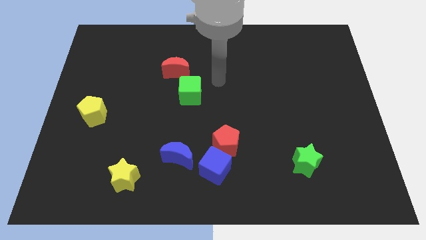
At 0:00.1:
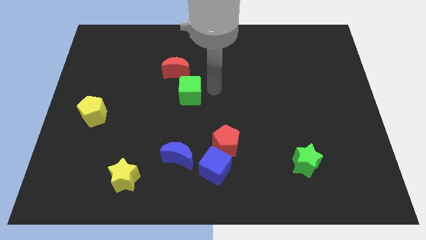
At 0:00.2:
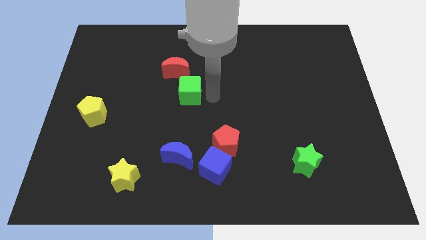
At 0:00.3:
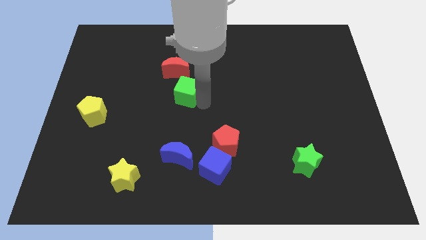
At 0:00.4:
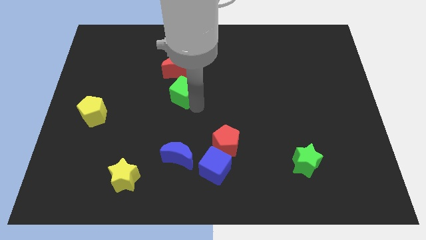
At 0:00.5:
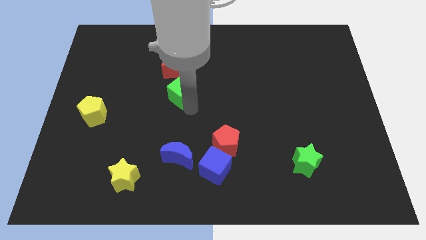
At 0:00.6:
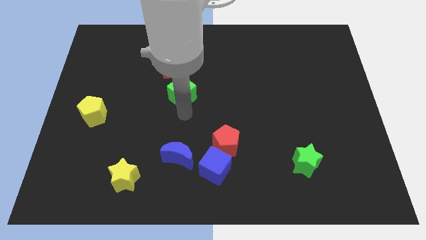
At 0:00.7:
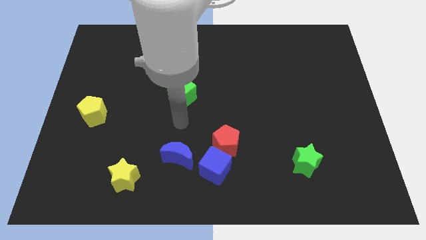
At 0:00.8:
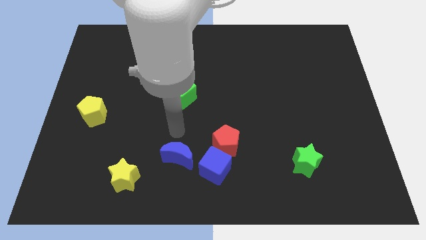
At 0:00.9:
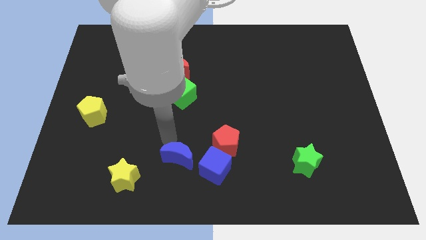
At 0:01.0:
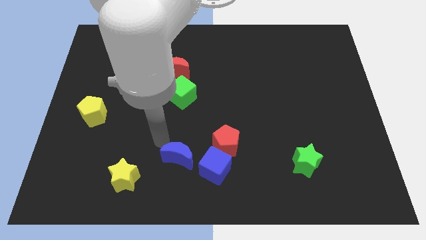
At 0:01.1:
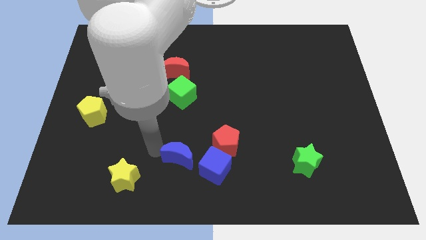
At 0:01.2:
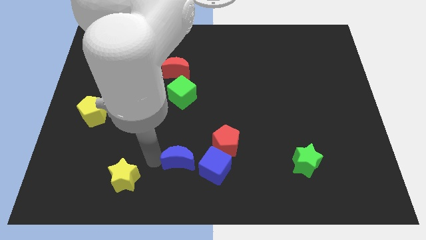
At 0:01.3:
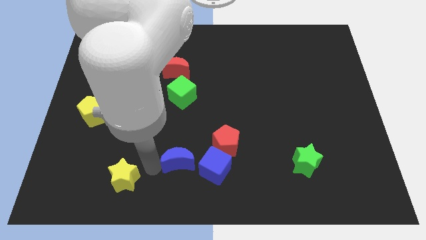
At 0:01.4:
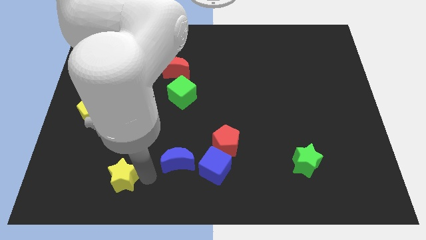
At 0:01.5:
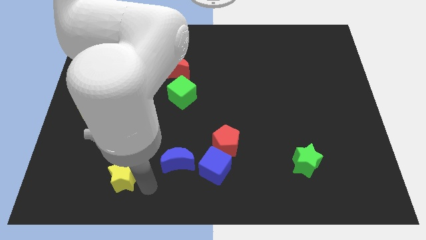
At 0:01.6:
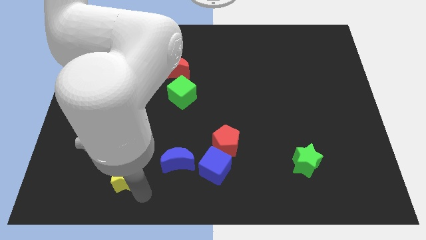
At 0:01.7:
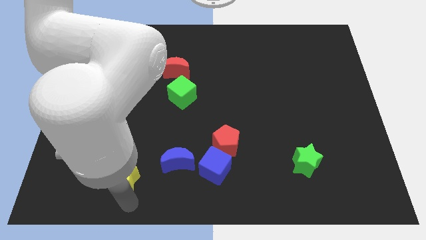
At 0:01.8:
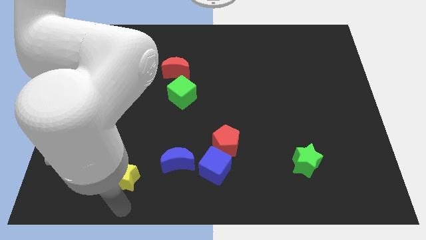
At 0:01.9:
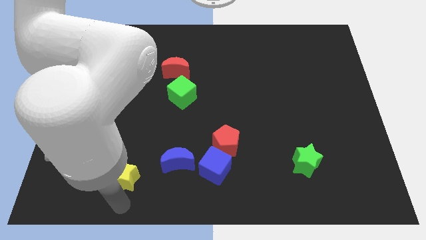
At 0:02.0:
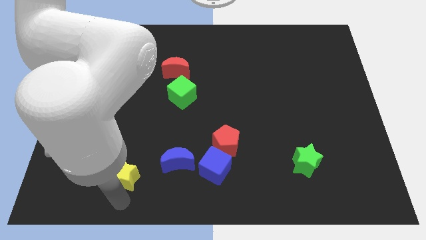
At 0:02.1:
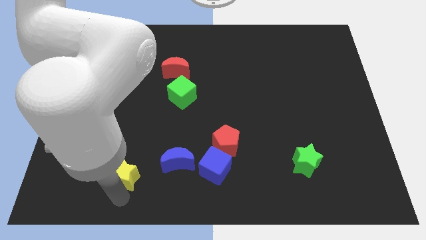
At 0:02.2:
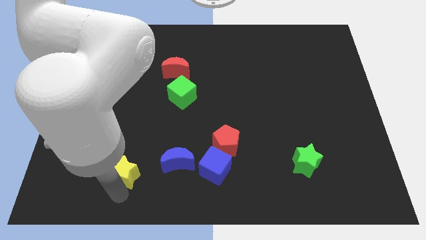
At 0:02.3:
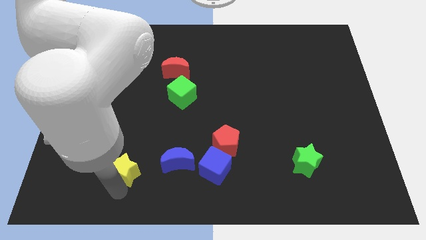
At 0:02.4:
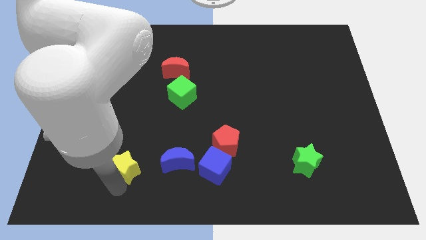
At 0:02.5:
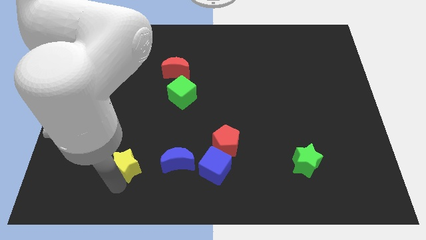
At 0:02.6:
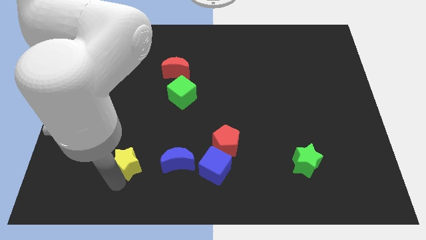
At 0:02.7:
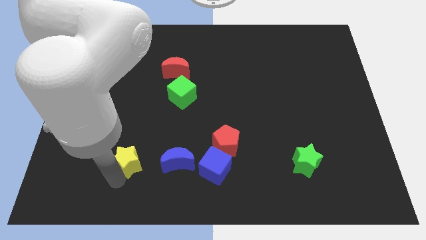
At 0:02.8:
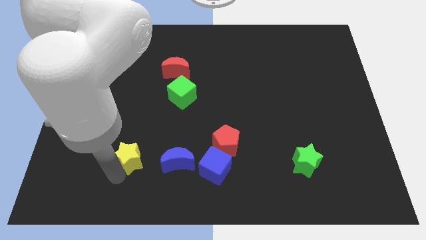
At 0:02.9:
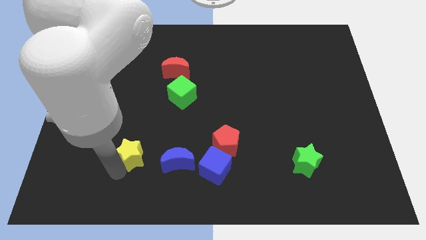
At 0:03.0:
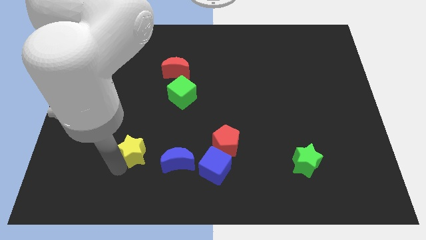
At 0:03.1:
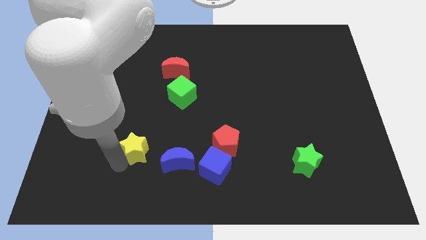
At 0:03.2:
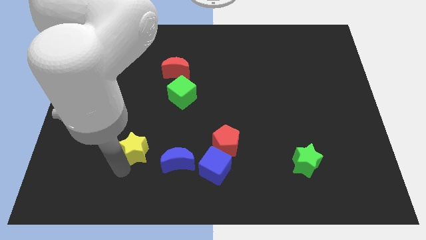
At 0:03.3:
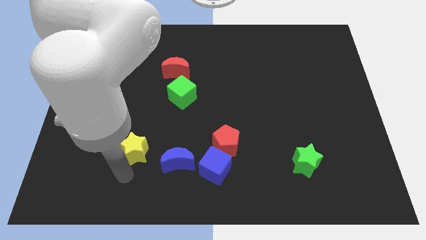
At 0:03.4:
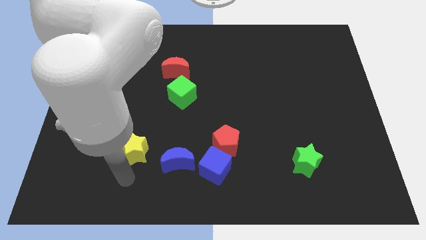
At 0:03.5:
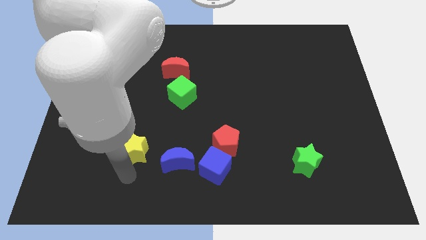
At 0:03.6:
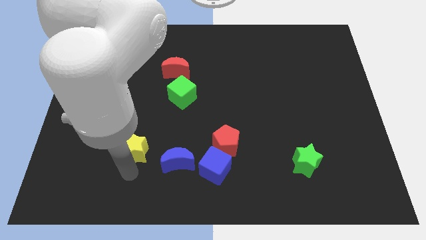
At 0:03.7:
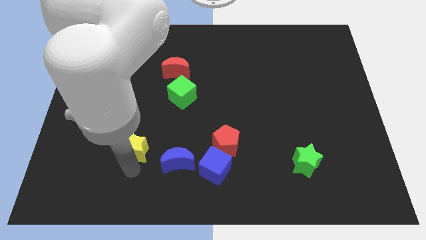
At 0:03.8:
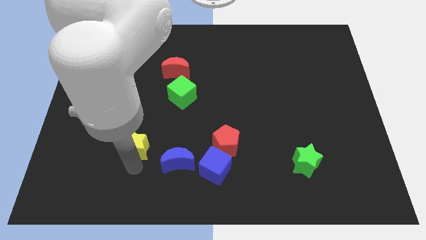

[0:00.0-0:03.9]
slightly push the yellow star up

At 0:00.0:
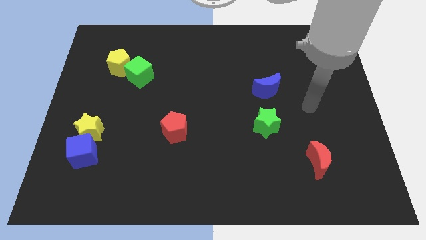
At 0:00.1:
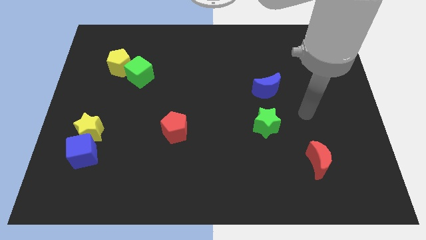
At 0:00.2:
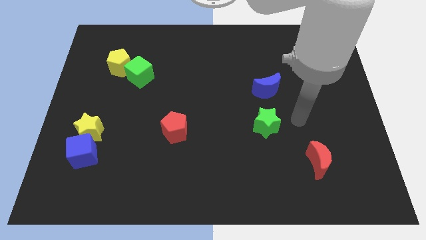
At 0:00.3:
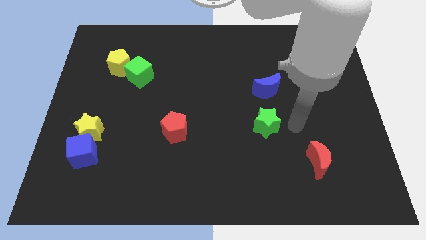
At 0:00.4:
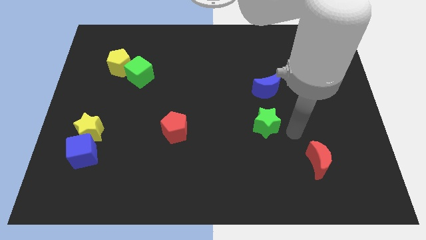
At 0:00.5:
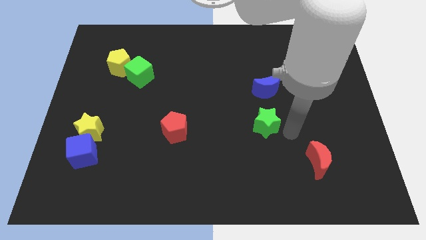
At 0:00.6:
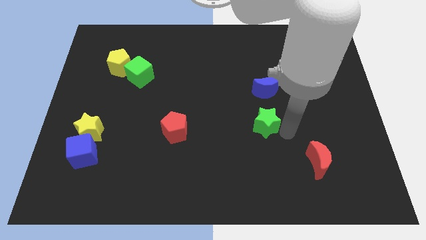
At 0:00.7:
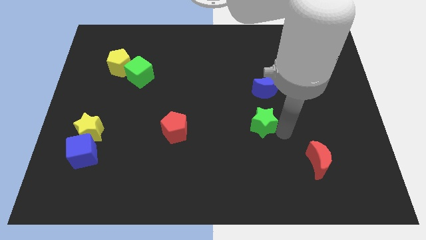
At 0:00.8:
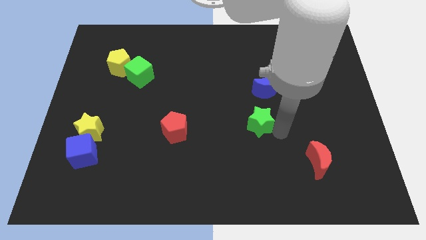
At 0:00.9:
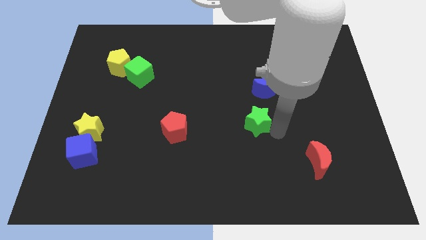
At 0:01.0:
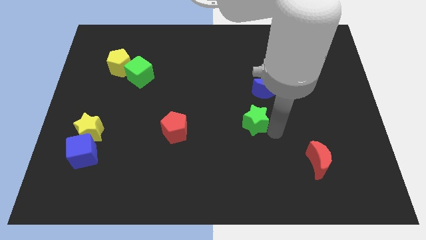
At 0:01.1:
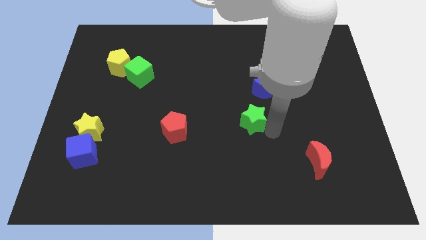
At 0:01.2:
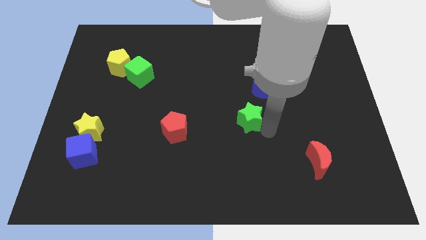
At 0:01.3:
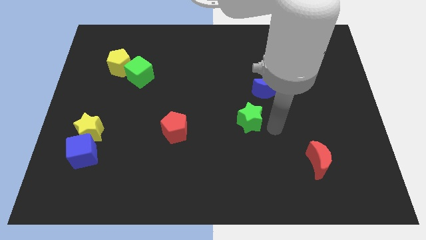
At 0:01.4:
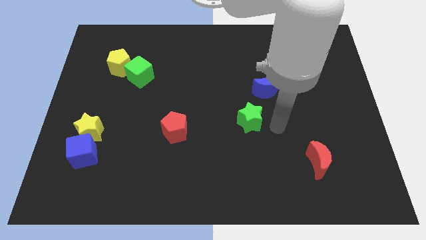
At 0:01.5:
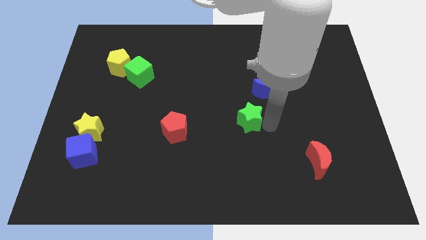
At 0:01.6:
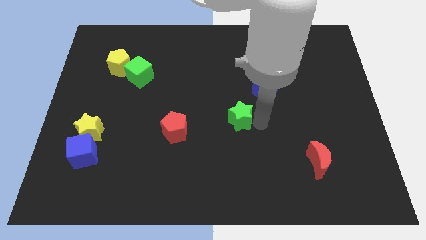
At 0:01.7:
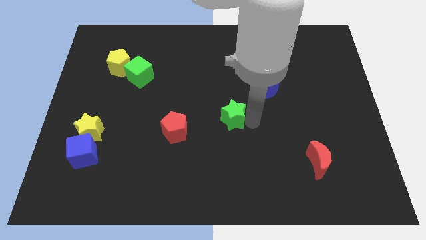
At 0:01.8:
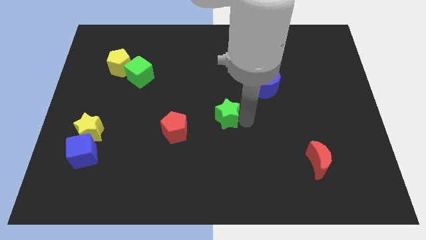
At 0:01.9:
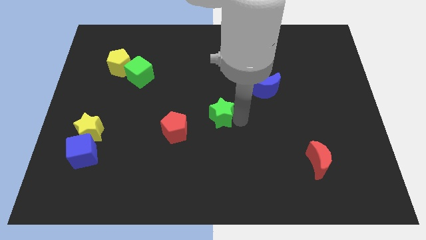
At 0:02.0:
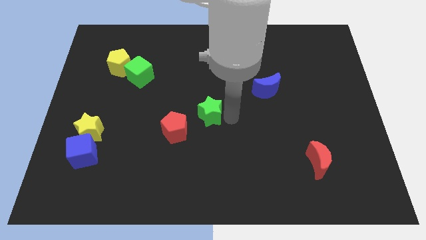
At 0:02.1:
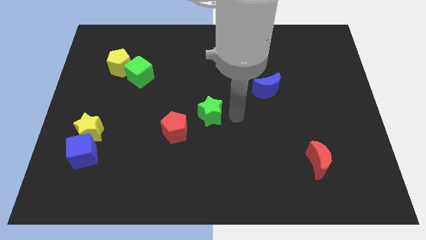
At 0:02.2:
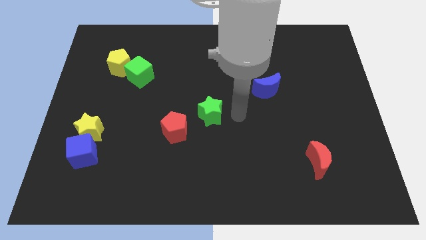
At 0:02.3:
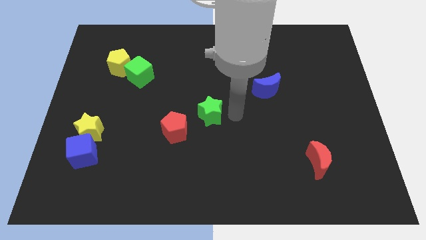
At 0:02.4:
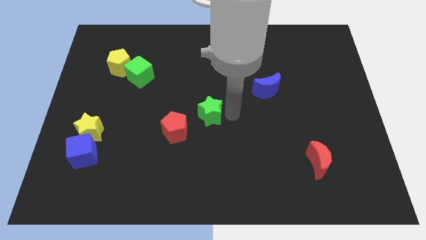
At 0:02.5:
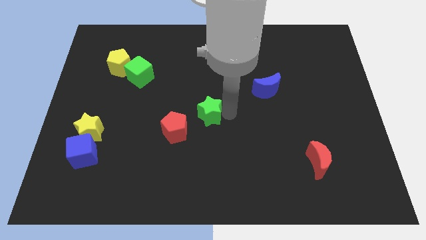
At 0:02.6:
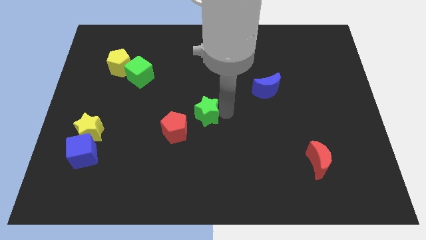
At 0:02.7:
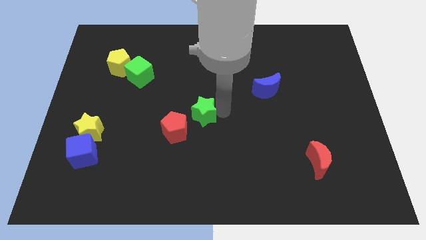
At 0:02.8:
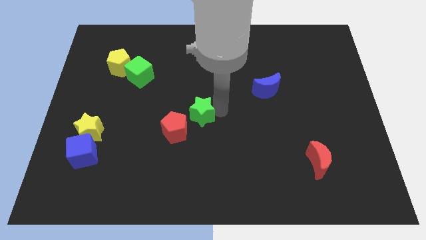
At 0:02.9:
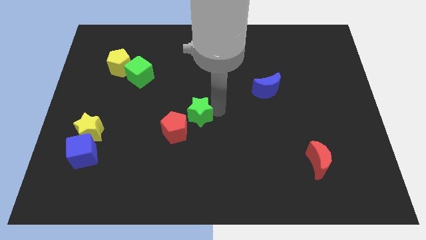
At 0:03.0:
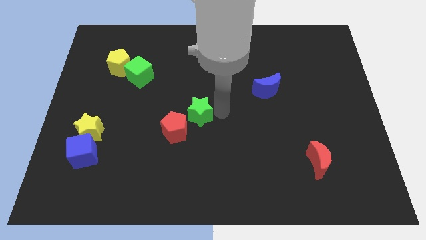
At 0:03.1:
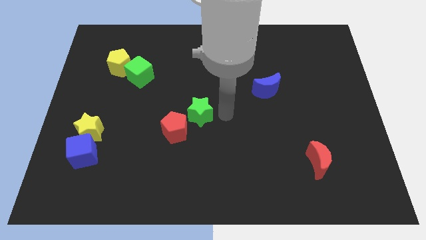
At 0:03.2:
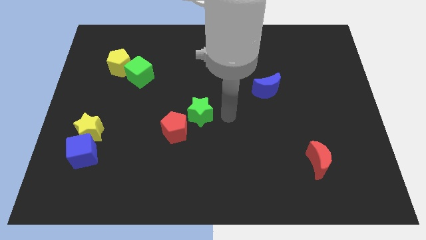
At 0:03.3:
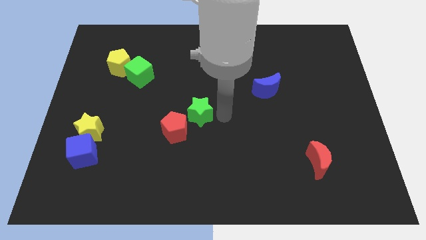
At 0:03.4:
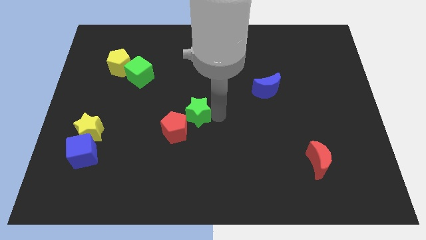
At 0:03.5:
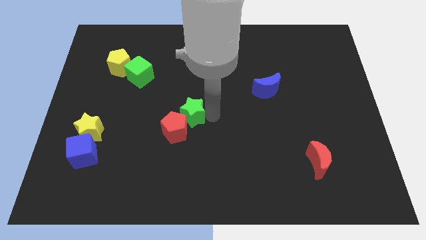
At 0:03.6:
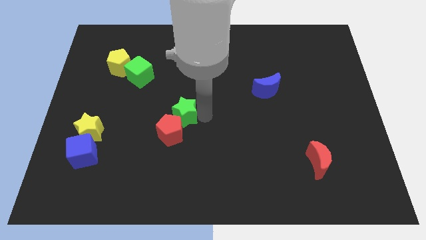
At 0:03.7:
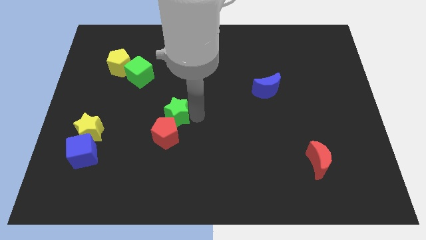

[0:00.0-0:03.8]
move the green star left

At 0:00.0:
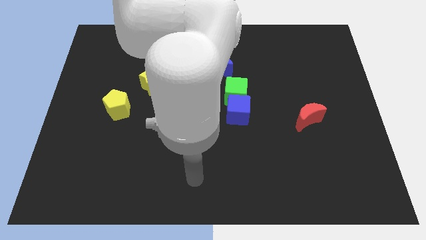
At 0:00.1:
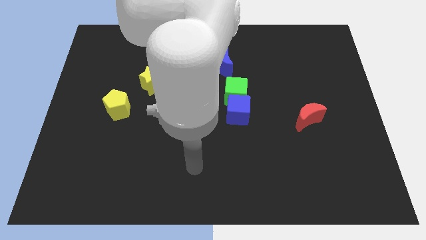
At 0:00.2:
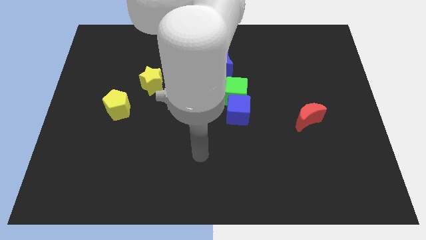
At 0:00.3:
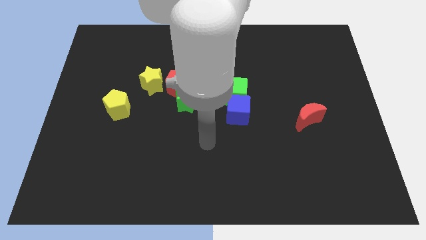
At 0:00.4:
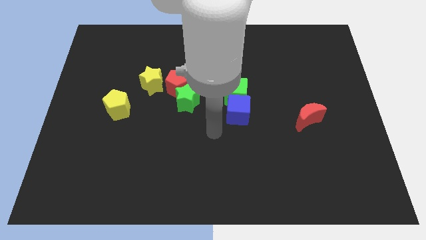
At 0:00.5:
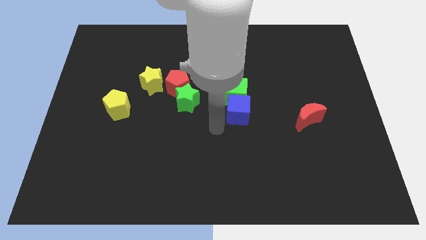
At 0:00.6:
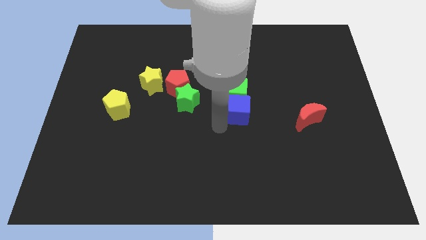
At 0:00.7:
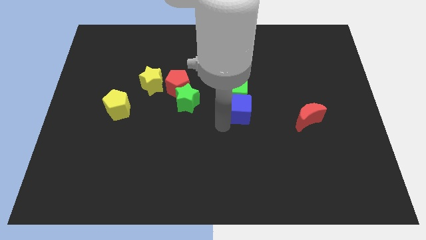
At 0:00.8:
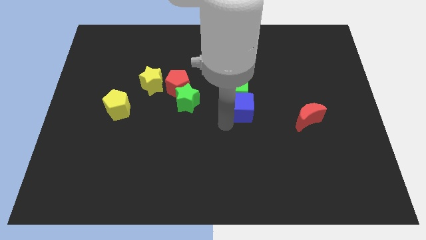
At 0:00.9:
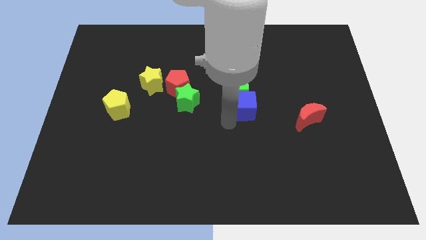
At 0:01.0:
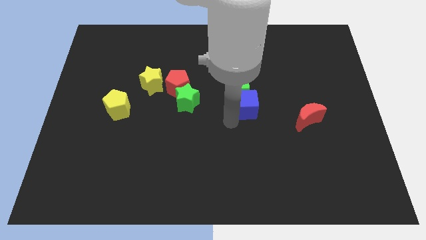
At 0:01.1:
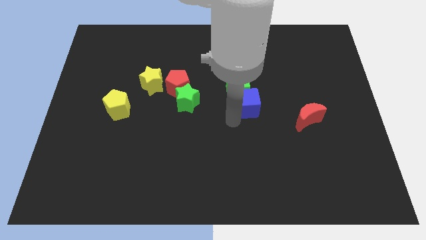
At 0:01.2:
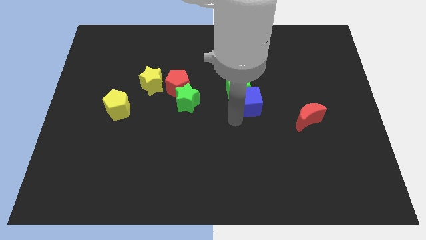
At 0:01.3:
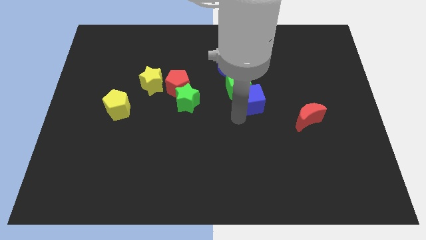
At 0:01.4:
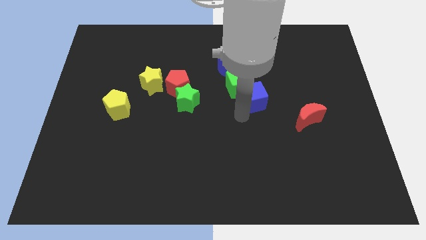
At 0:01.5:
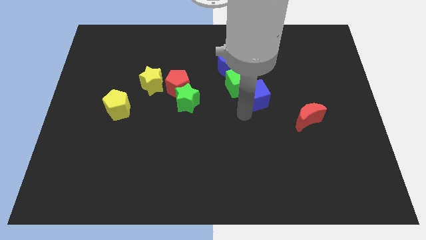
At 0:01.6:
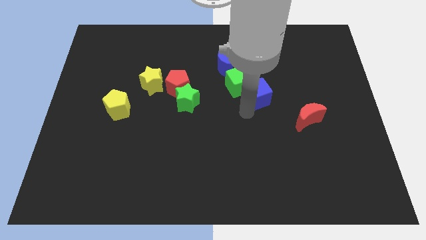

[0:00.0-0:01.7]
slightly push the blue cube diagonally up and right
